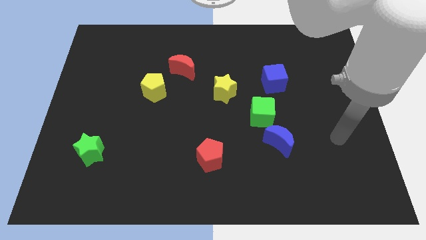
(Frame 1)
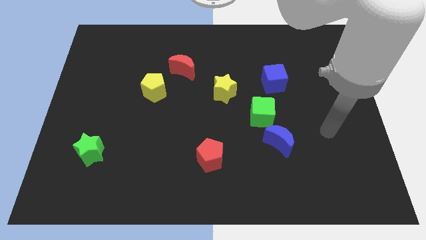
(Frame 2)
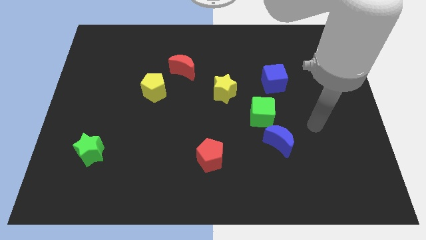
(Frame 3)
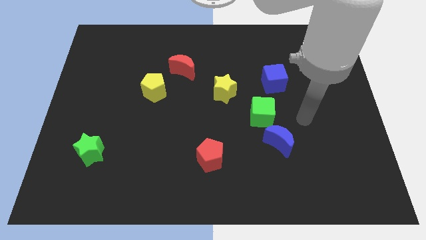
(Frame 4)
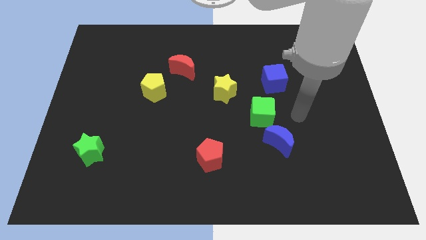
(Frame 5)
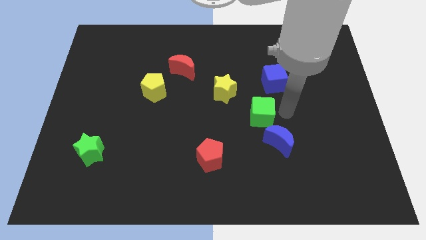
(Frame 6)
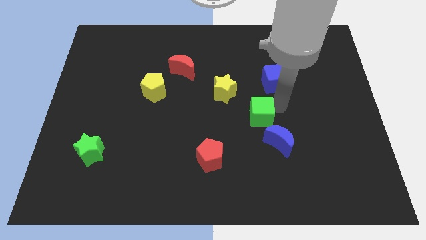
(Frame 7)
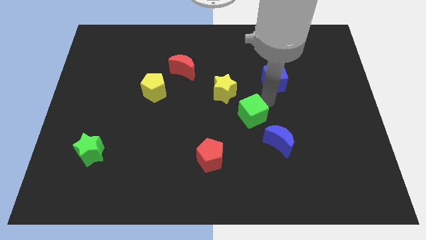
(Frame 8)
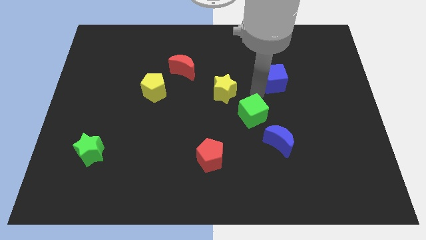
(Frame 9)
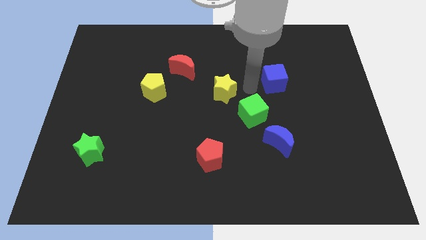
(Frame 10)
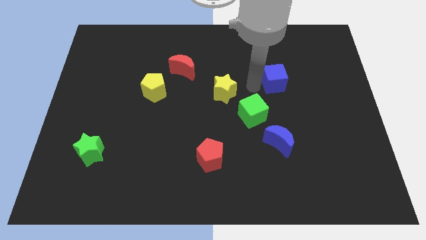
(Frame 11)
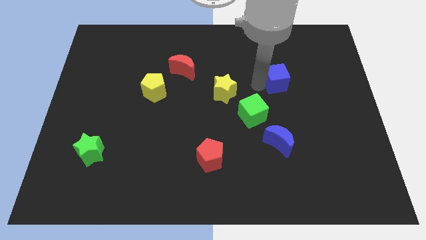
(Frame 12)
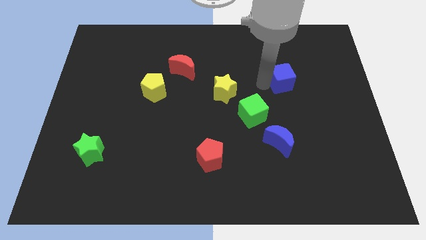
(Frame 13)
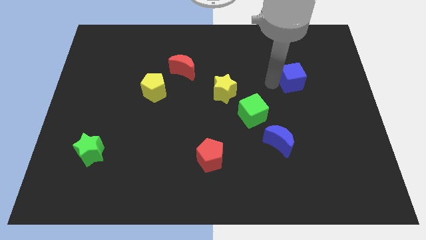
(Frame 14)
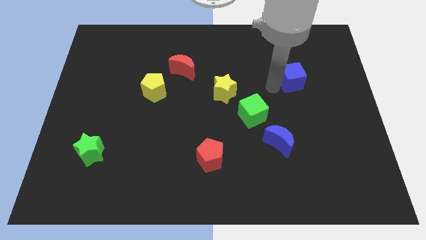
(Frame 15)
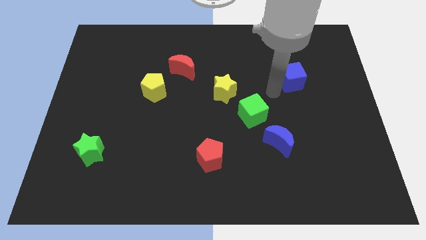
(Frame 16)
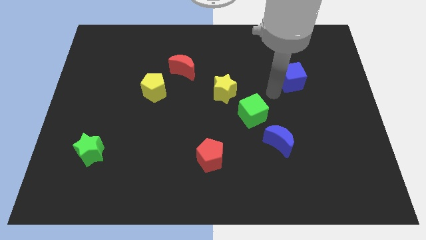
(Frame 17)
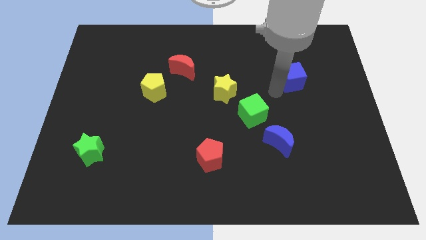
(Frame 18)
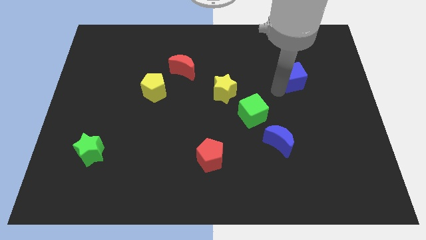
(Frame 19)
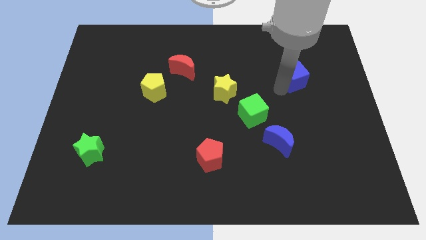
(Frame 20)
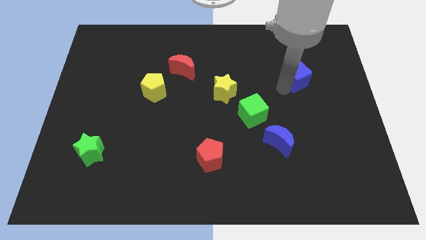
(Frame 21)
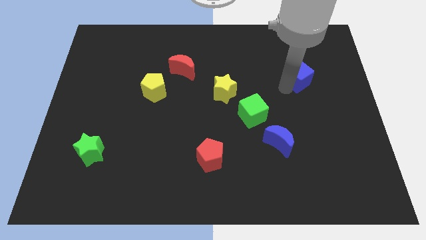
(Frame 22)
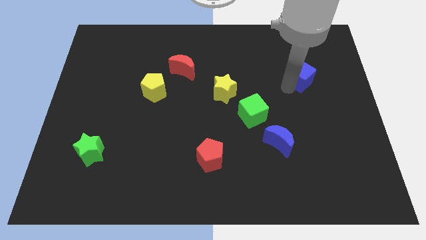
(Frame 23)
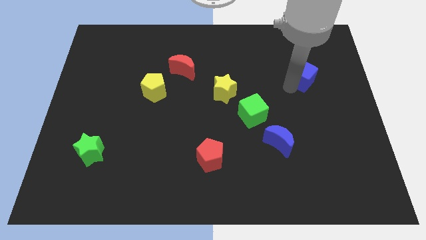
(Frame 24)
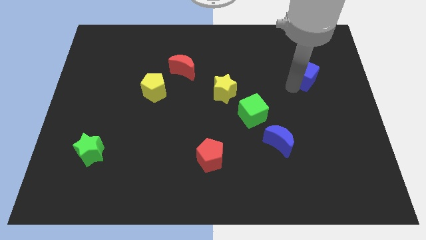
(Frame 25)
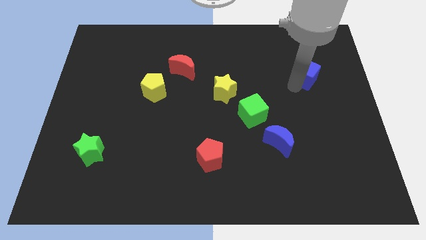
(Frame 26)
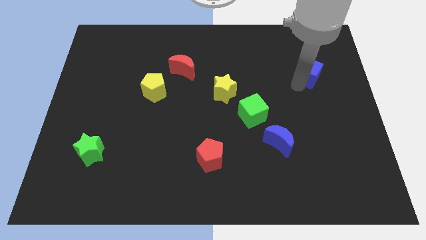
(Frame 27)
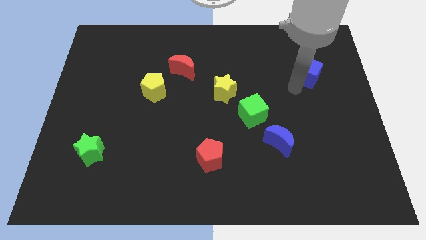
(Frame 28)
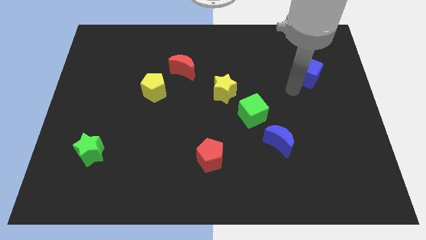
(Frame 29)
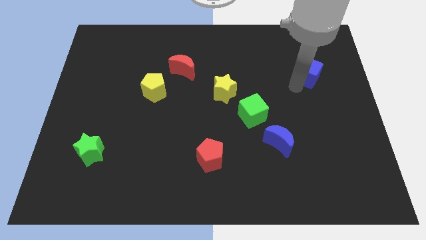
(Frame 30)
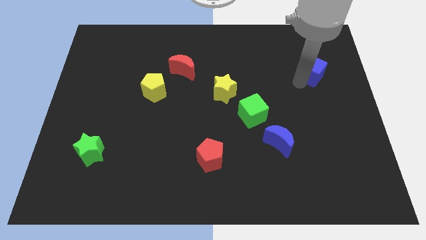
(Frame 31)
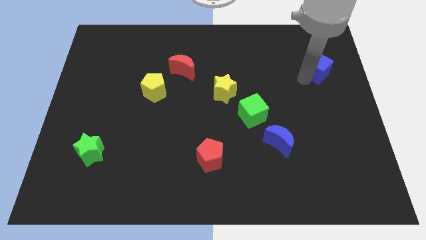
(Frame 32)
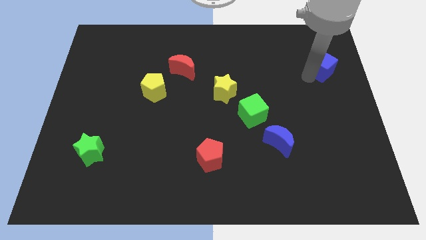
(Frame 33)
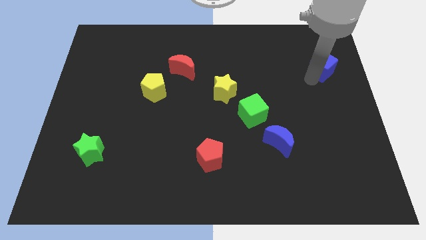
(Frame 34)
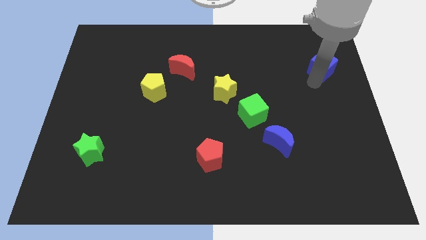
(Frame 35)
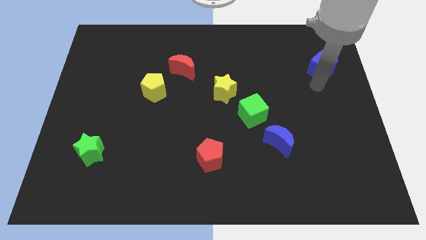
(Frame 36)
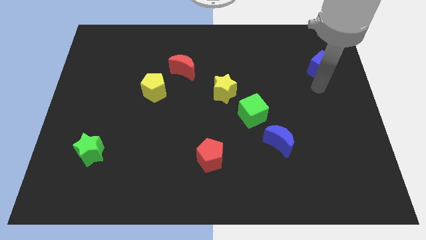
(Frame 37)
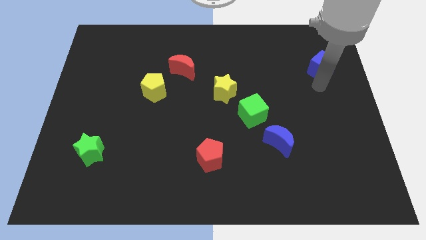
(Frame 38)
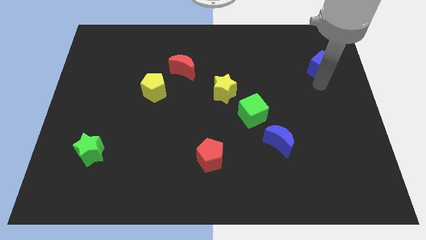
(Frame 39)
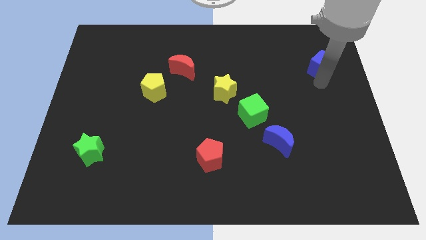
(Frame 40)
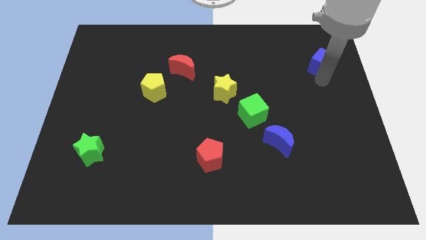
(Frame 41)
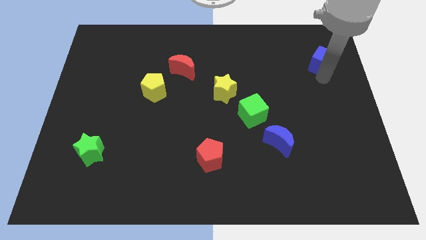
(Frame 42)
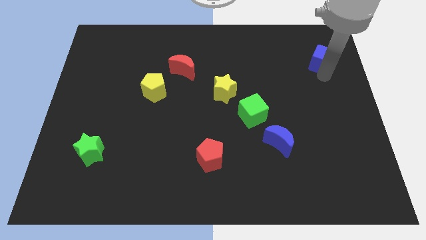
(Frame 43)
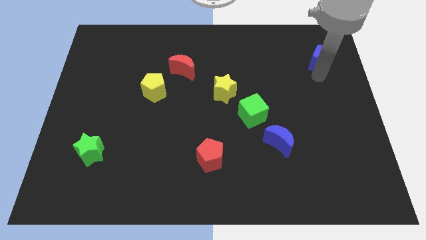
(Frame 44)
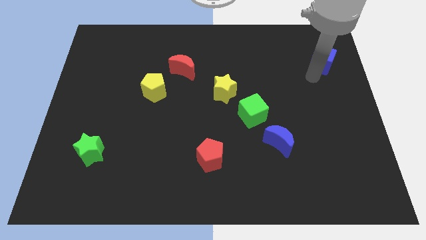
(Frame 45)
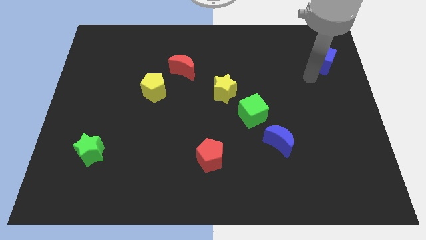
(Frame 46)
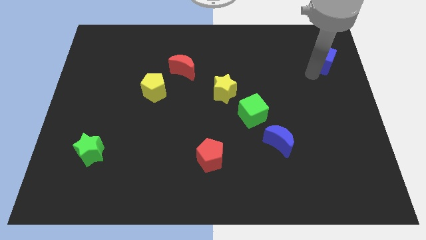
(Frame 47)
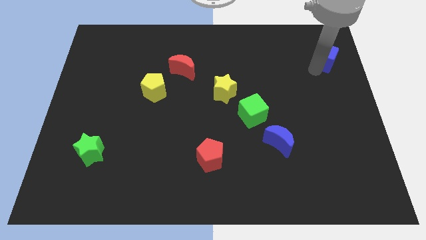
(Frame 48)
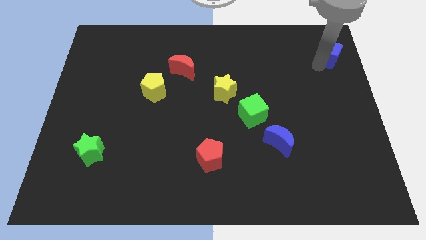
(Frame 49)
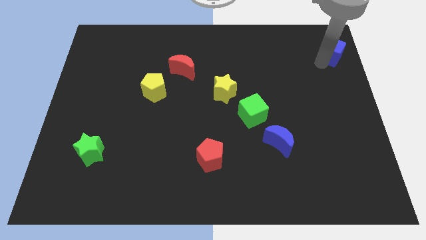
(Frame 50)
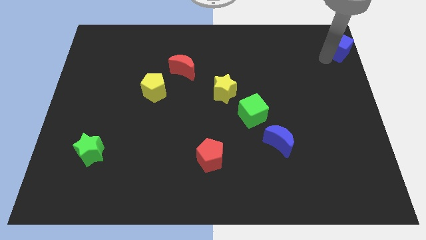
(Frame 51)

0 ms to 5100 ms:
move the blue cube to the top right

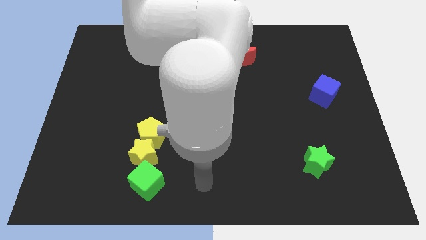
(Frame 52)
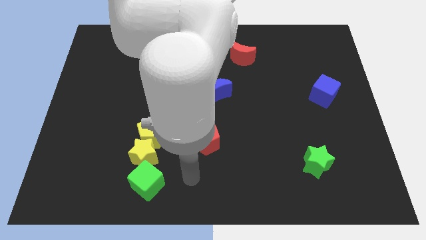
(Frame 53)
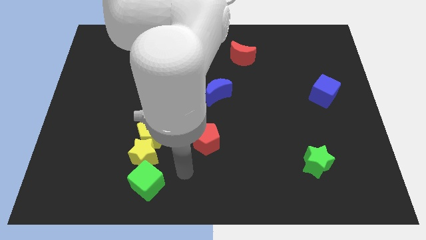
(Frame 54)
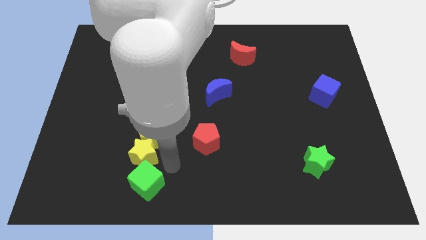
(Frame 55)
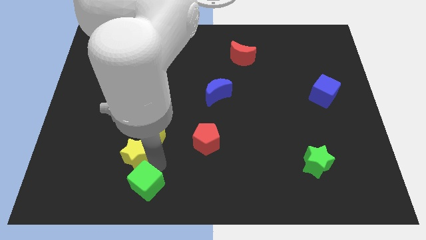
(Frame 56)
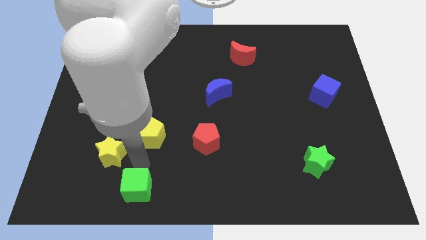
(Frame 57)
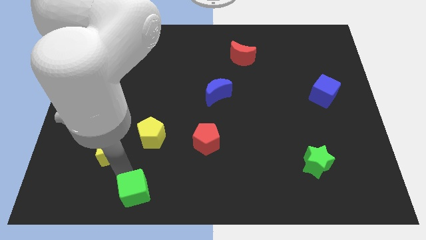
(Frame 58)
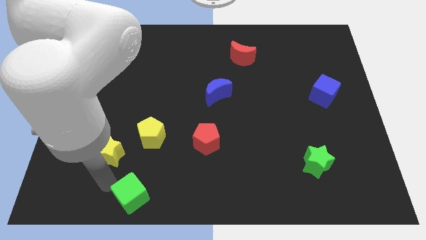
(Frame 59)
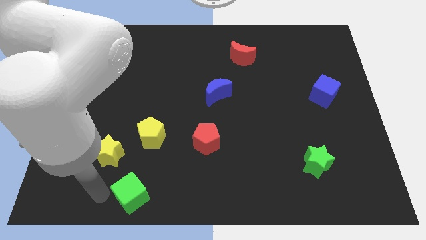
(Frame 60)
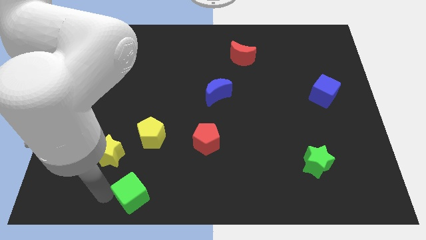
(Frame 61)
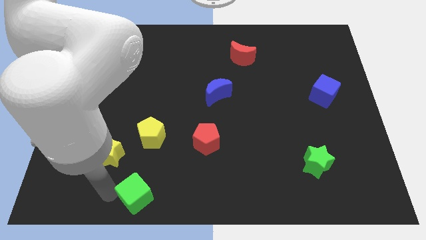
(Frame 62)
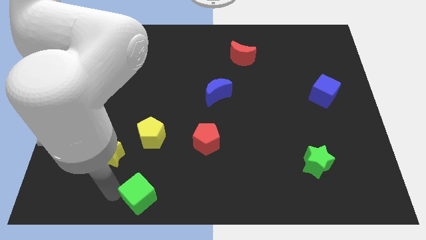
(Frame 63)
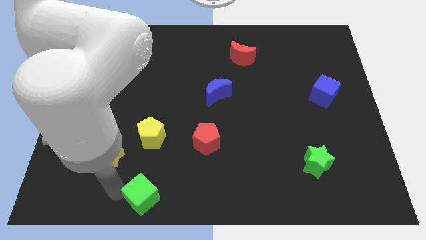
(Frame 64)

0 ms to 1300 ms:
put the green cube to the bottom side
